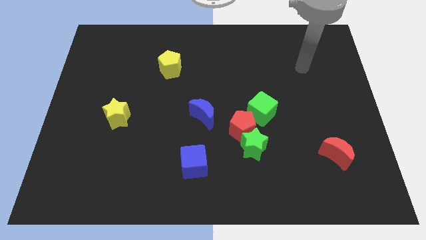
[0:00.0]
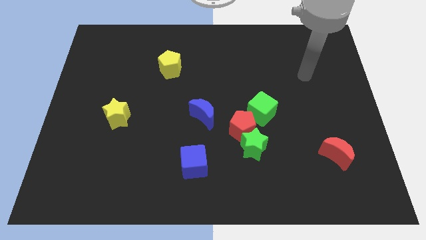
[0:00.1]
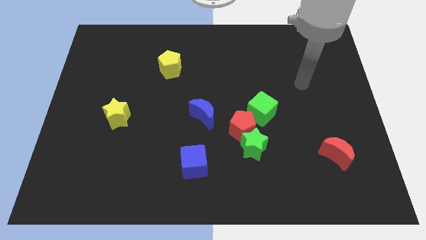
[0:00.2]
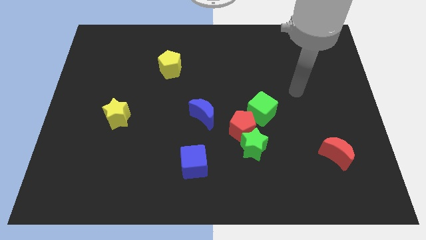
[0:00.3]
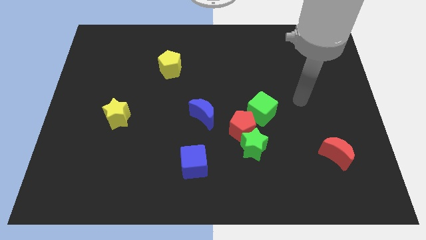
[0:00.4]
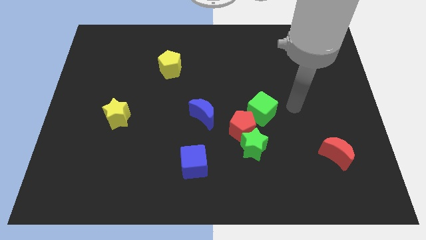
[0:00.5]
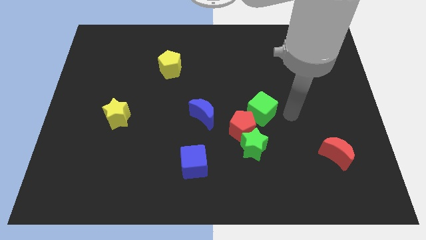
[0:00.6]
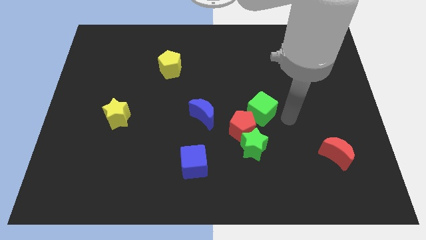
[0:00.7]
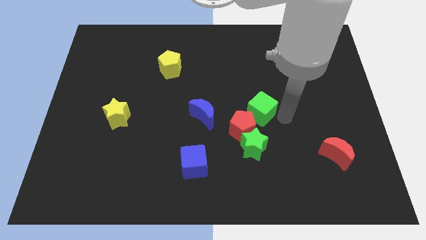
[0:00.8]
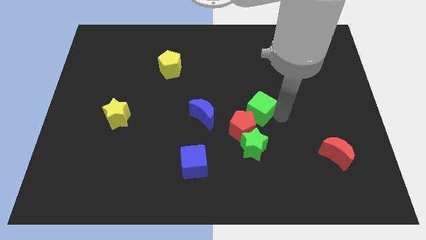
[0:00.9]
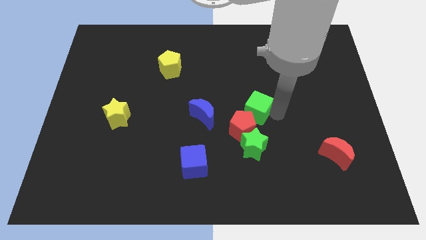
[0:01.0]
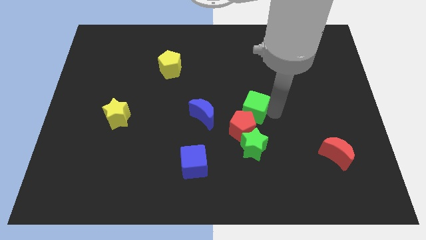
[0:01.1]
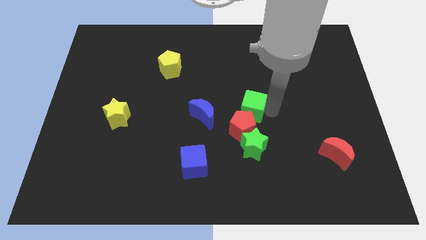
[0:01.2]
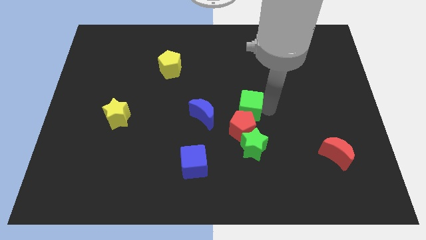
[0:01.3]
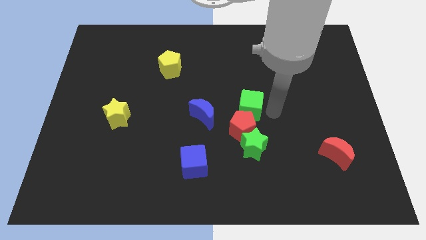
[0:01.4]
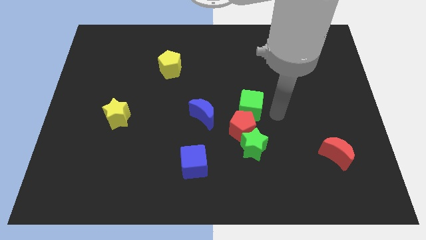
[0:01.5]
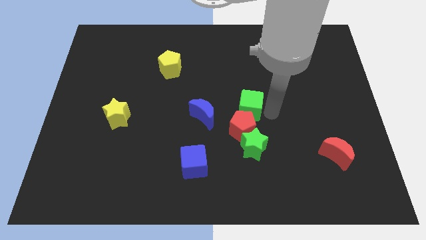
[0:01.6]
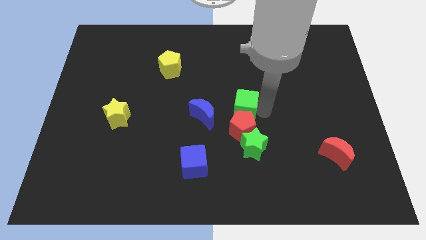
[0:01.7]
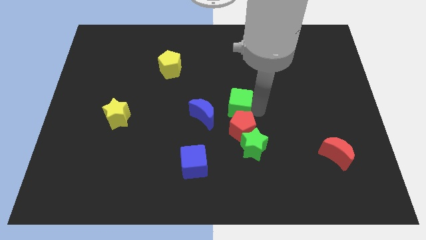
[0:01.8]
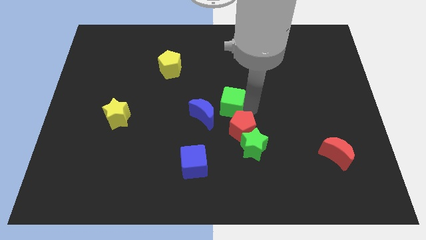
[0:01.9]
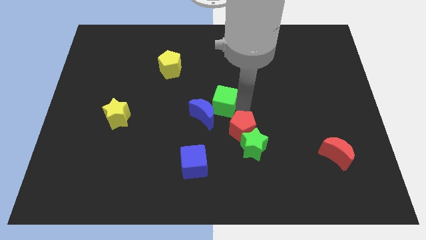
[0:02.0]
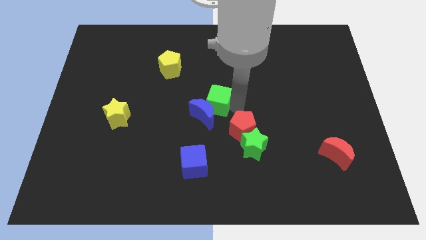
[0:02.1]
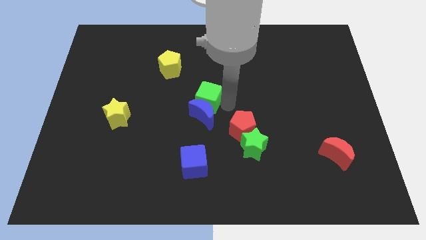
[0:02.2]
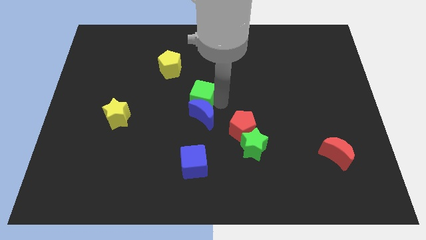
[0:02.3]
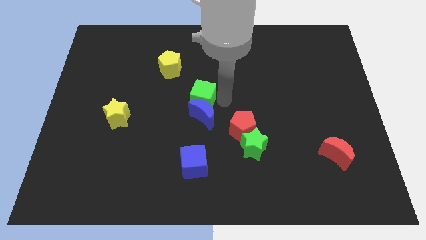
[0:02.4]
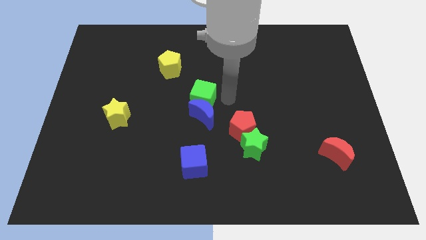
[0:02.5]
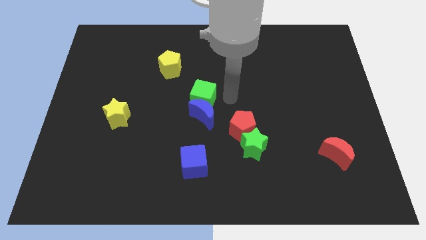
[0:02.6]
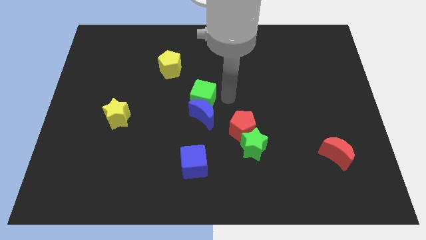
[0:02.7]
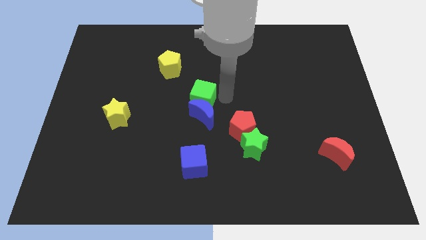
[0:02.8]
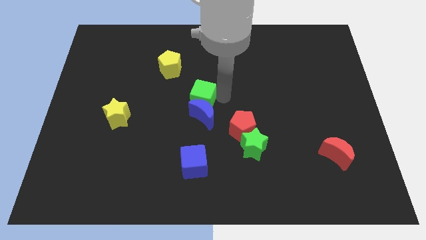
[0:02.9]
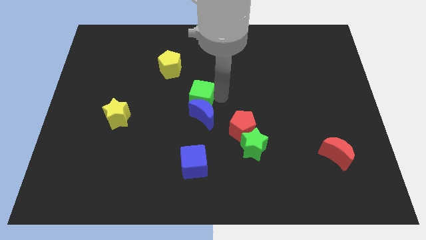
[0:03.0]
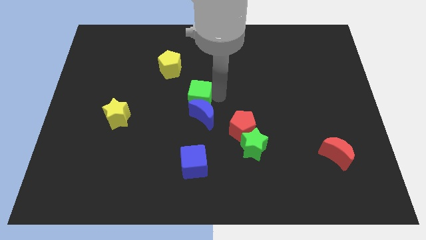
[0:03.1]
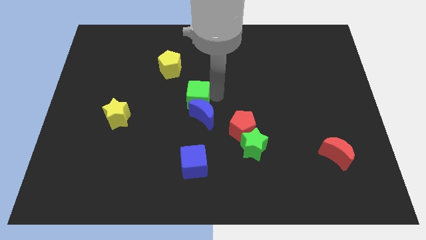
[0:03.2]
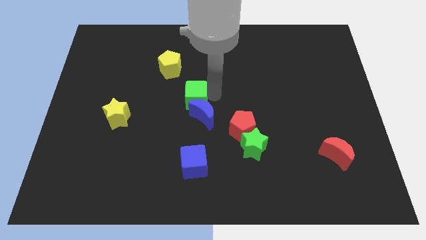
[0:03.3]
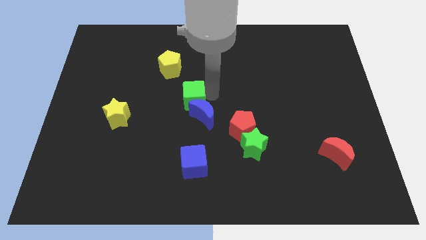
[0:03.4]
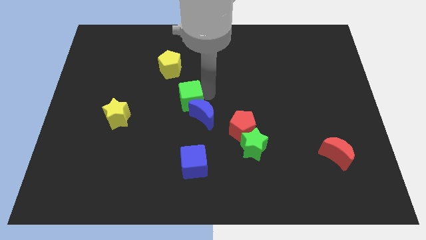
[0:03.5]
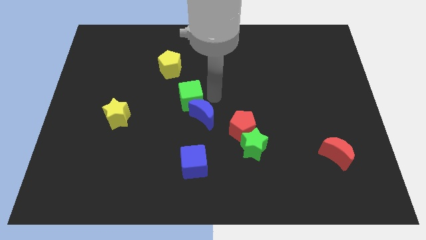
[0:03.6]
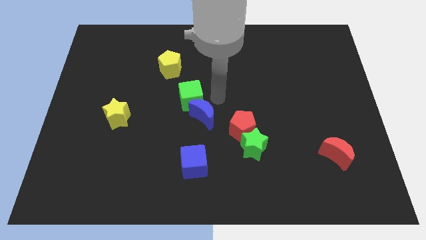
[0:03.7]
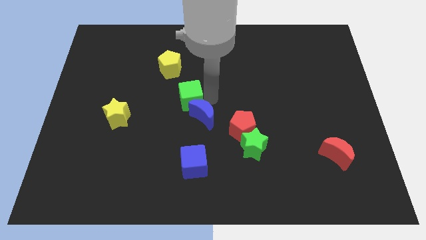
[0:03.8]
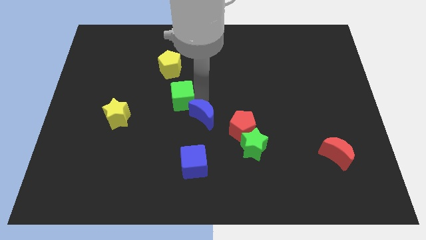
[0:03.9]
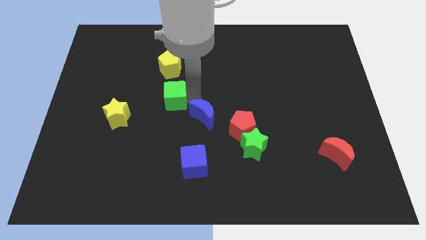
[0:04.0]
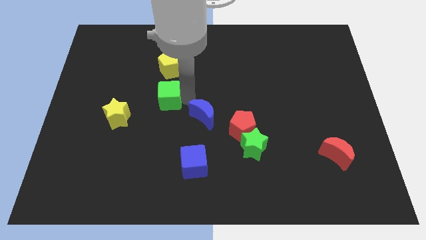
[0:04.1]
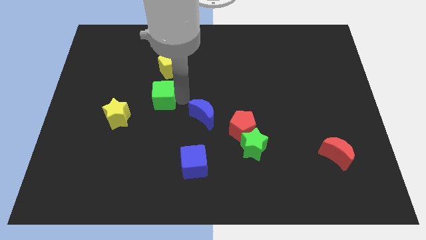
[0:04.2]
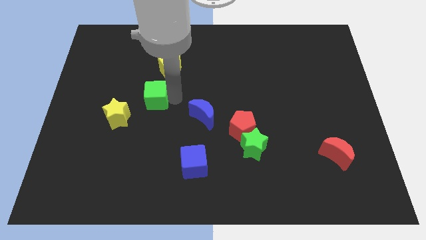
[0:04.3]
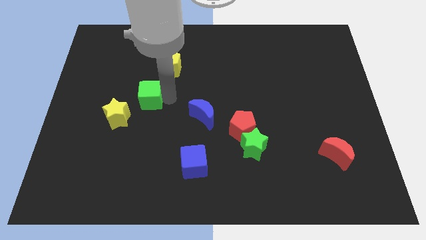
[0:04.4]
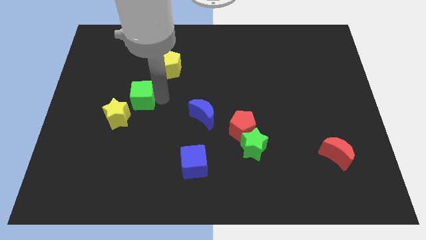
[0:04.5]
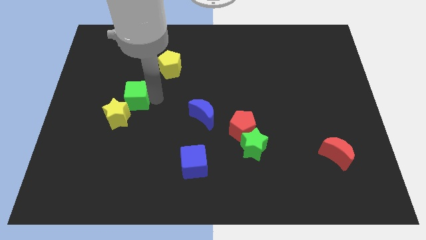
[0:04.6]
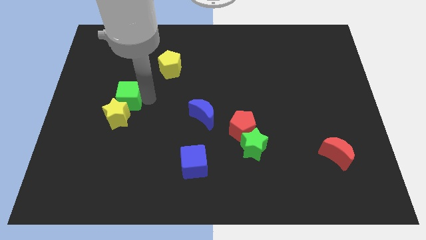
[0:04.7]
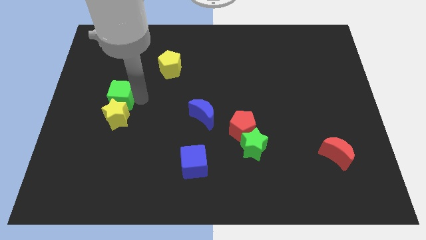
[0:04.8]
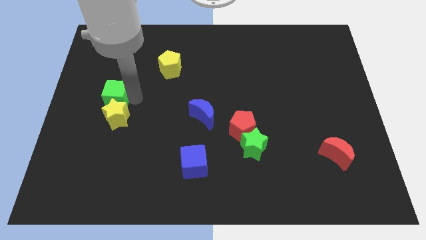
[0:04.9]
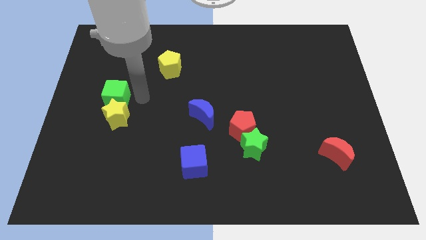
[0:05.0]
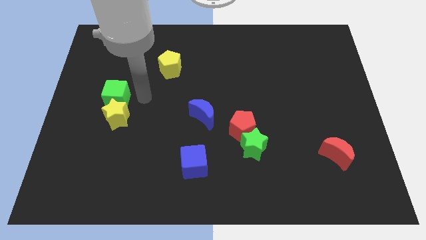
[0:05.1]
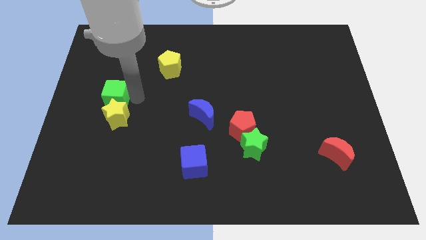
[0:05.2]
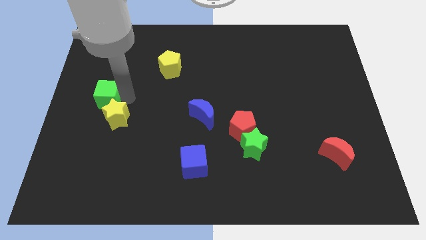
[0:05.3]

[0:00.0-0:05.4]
put the green cube to the left side of the board

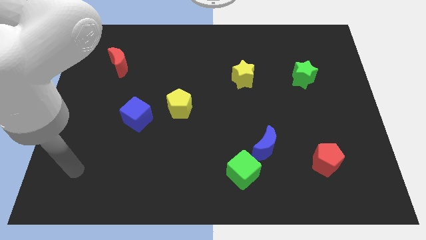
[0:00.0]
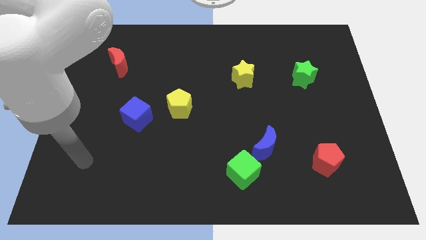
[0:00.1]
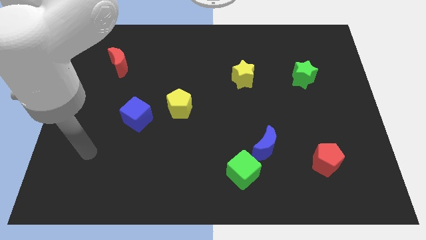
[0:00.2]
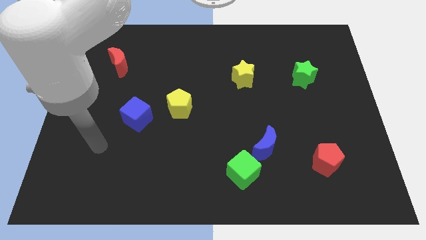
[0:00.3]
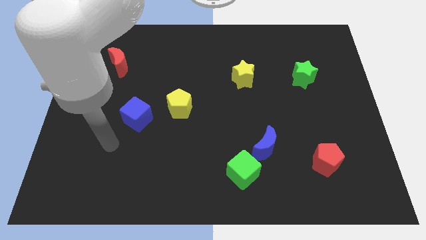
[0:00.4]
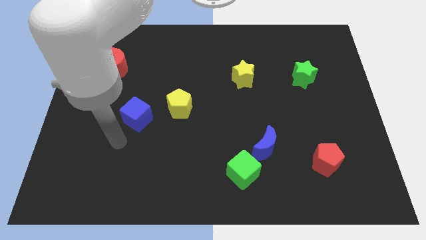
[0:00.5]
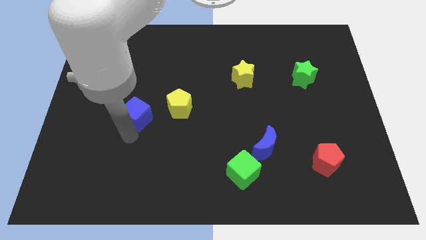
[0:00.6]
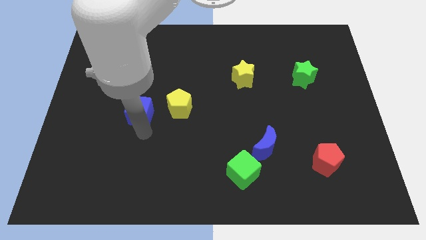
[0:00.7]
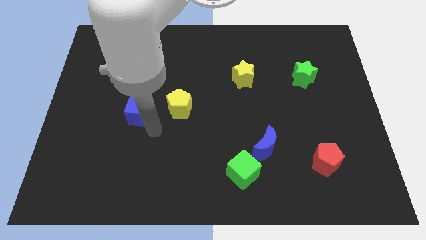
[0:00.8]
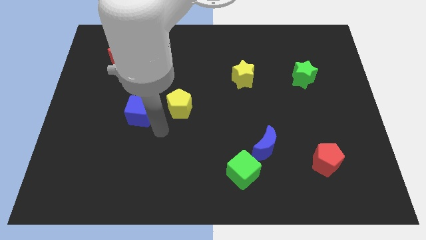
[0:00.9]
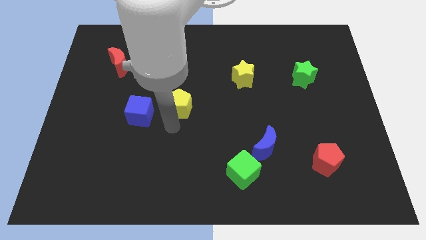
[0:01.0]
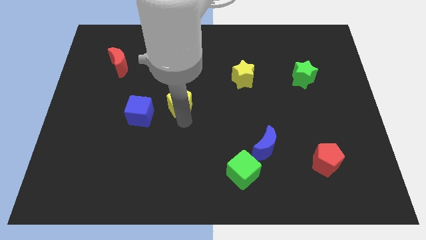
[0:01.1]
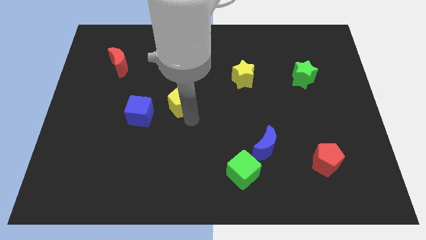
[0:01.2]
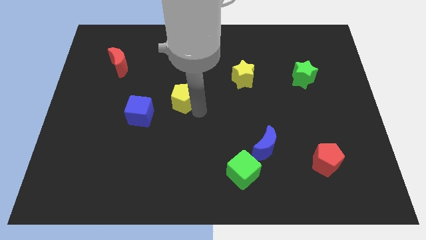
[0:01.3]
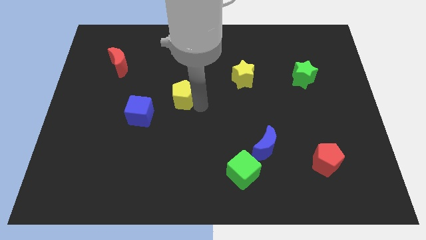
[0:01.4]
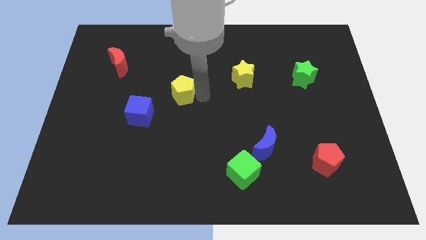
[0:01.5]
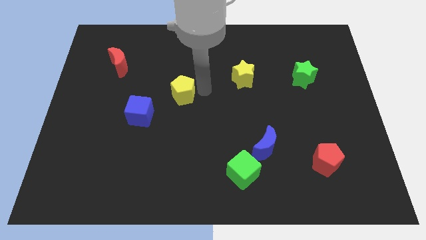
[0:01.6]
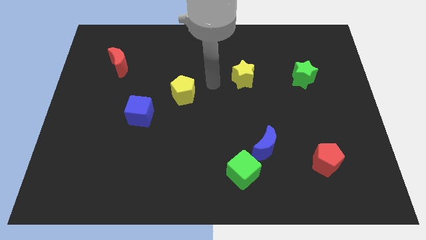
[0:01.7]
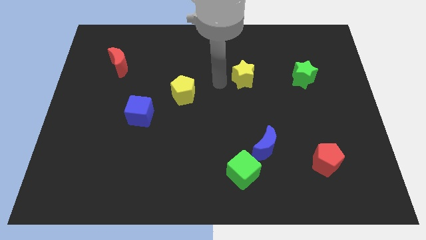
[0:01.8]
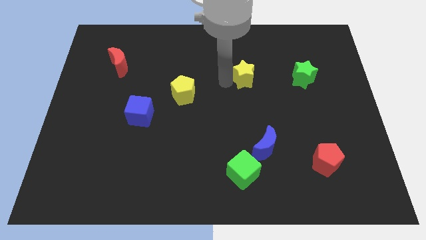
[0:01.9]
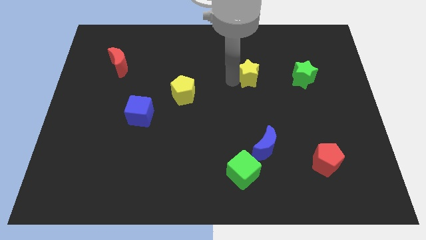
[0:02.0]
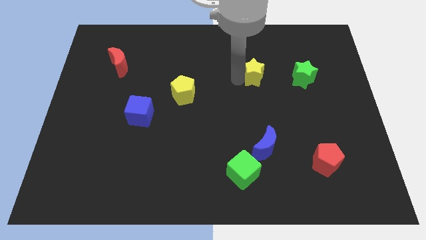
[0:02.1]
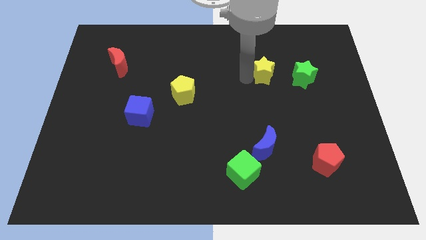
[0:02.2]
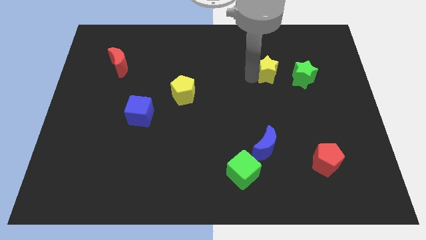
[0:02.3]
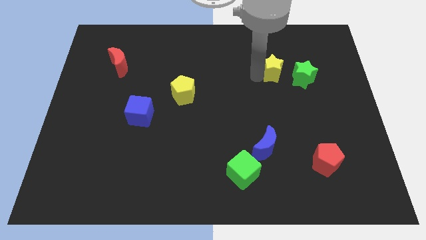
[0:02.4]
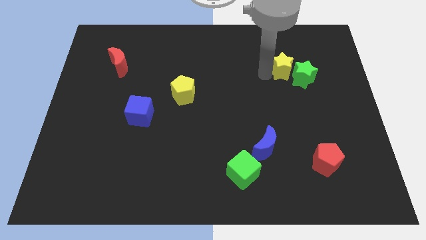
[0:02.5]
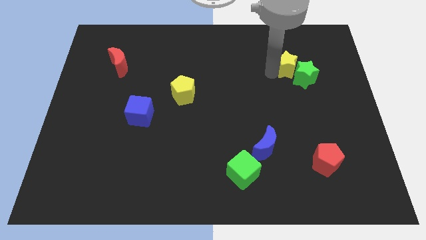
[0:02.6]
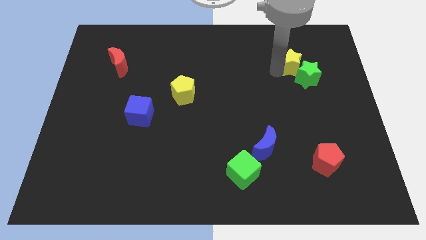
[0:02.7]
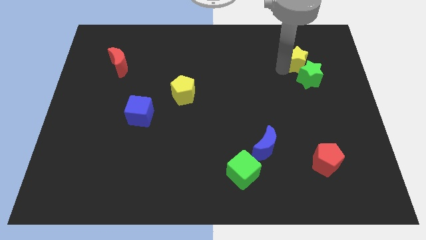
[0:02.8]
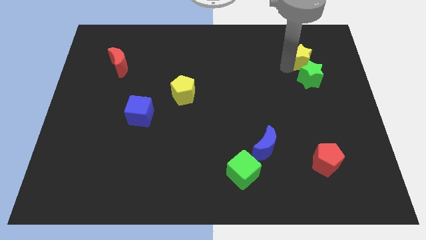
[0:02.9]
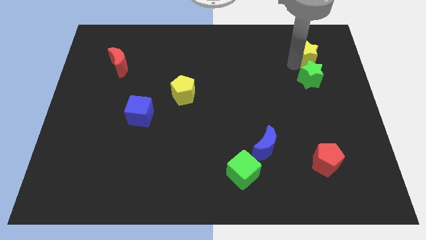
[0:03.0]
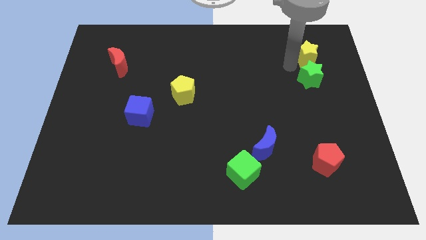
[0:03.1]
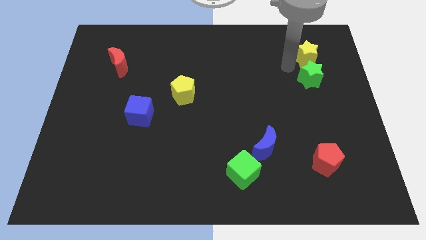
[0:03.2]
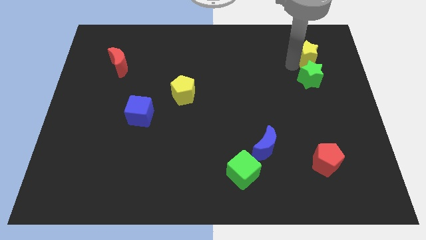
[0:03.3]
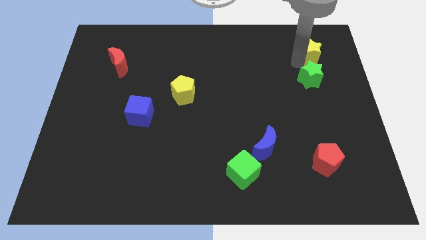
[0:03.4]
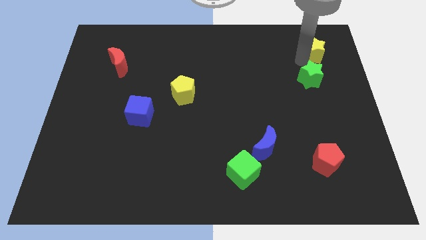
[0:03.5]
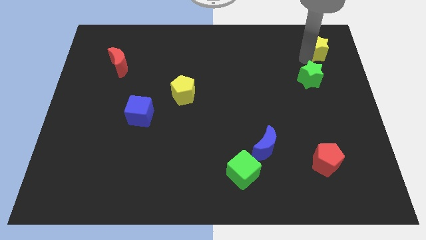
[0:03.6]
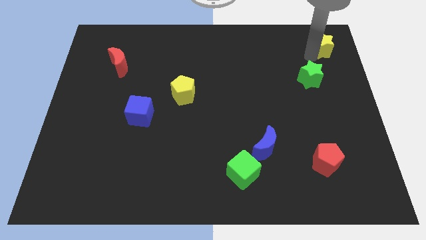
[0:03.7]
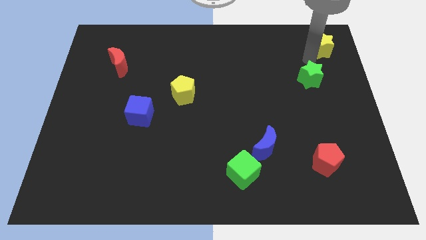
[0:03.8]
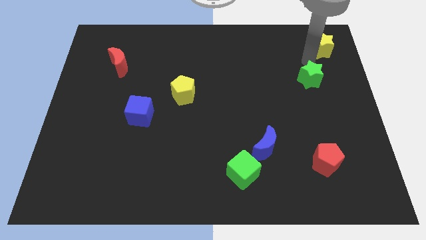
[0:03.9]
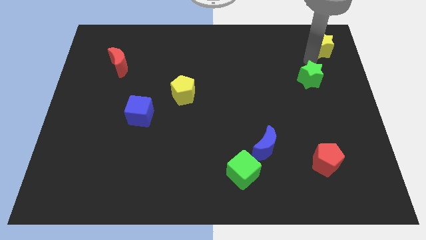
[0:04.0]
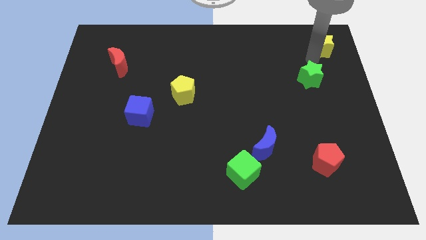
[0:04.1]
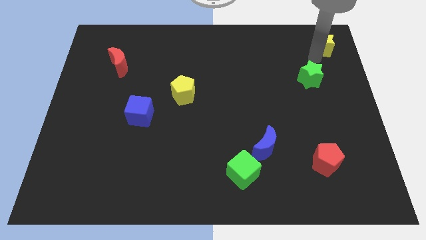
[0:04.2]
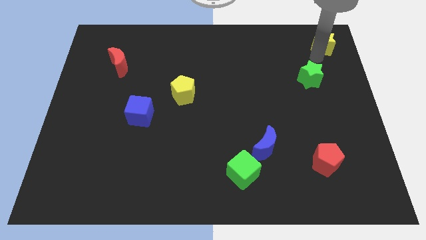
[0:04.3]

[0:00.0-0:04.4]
push the yellow star to the top right corner
